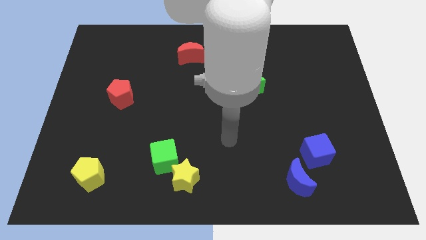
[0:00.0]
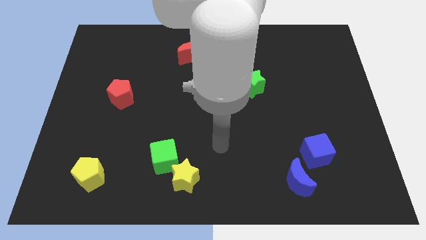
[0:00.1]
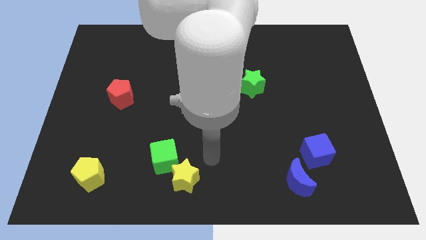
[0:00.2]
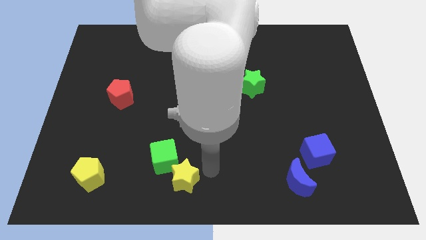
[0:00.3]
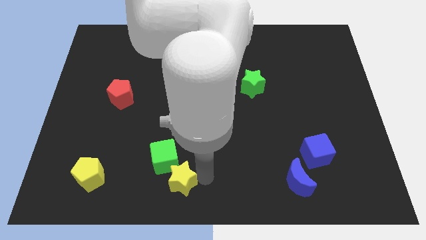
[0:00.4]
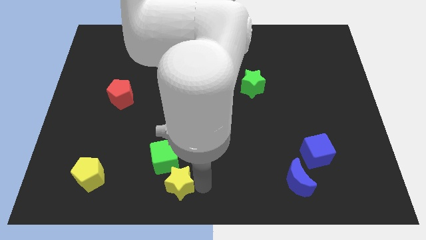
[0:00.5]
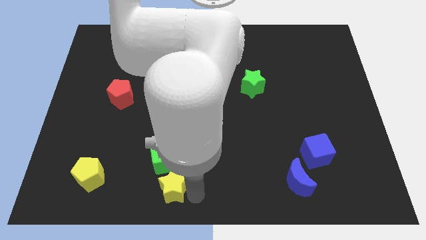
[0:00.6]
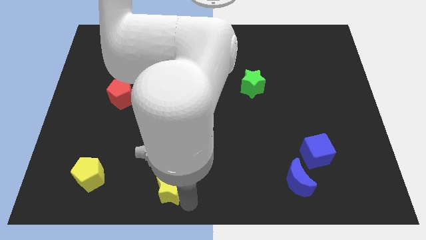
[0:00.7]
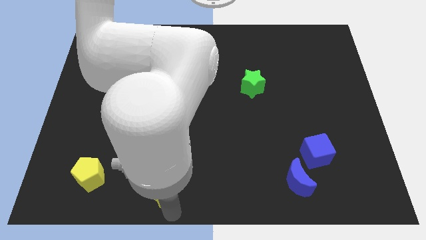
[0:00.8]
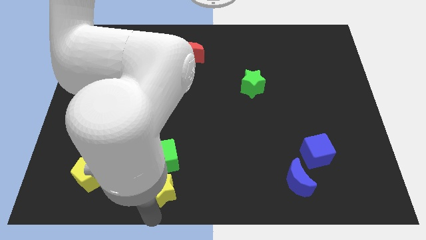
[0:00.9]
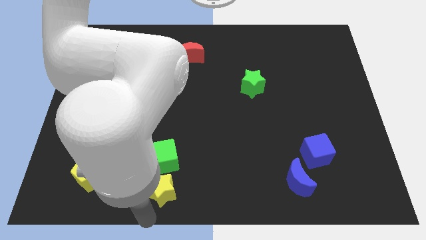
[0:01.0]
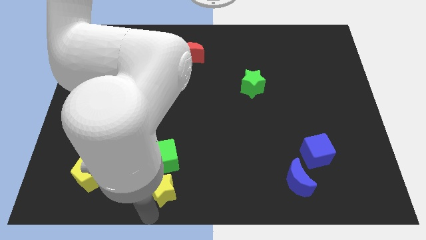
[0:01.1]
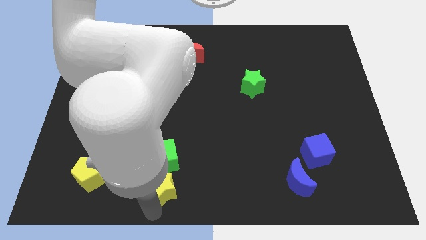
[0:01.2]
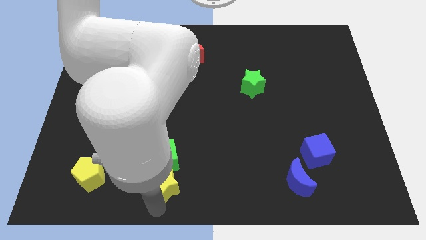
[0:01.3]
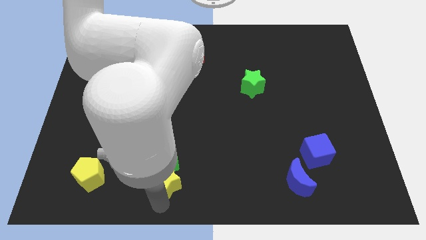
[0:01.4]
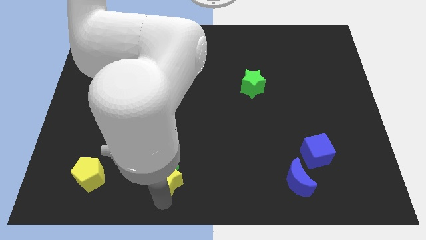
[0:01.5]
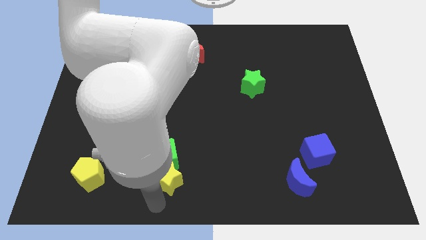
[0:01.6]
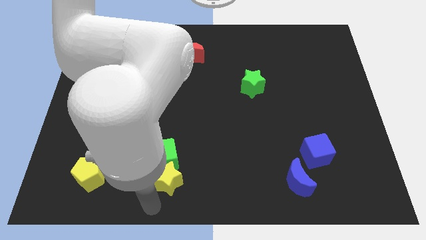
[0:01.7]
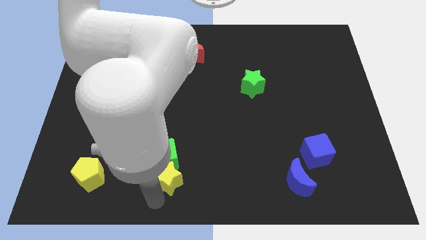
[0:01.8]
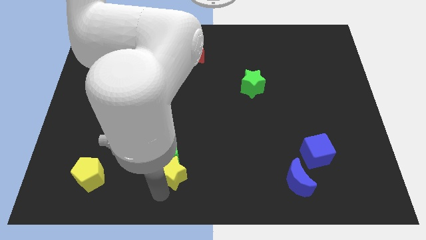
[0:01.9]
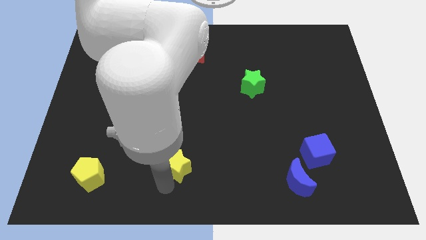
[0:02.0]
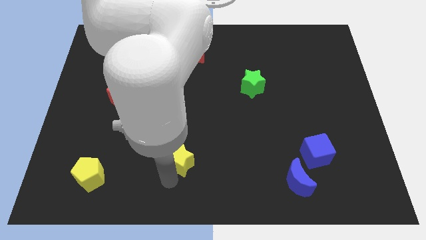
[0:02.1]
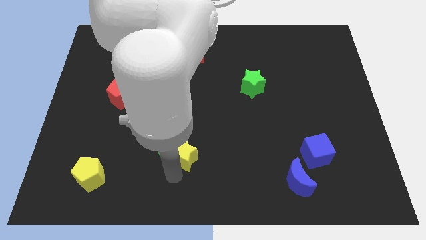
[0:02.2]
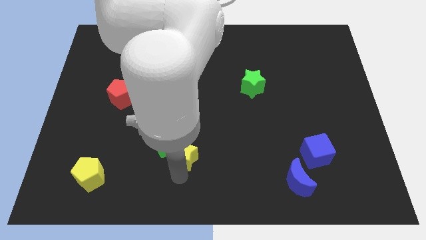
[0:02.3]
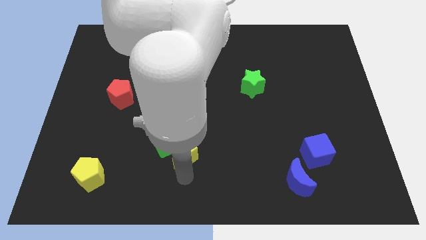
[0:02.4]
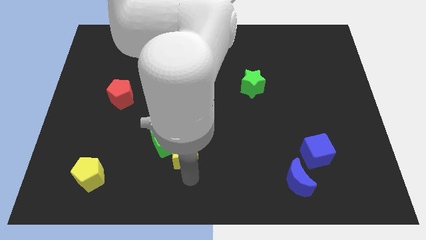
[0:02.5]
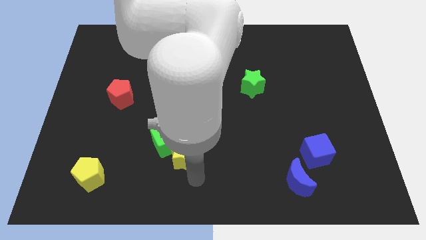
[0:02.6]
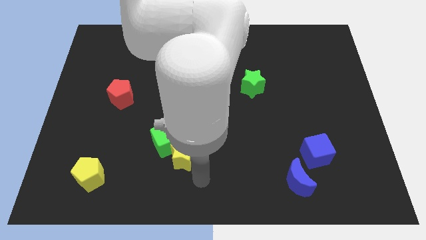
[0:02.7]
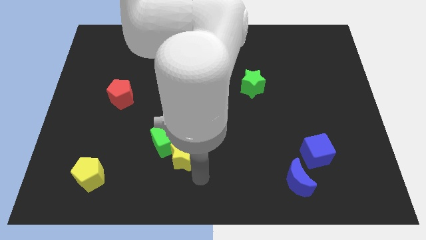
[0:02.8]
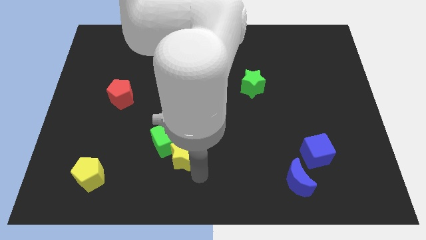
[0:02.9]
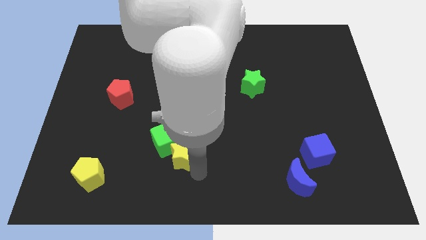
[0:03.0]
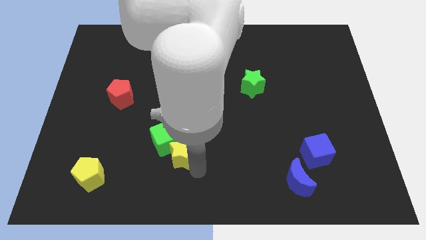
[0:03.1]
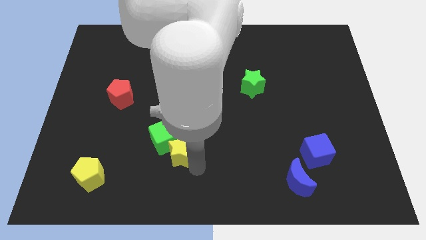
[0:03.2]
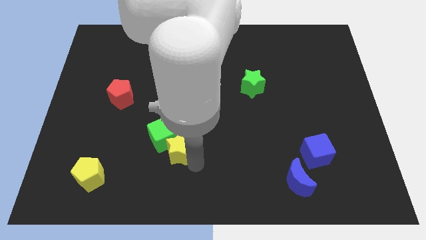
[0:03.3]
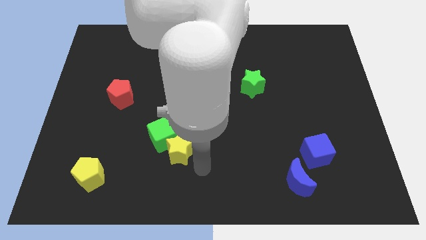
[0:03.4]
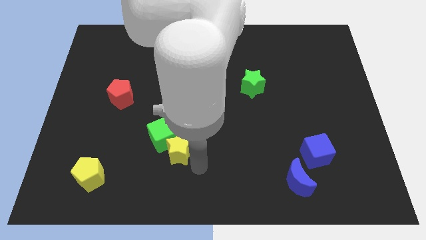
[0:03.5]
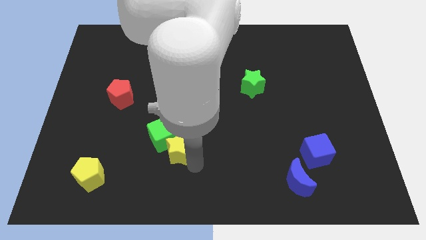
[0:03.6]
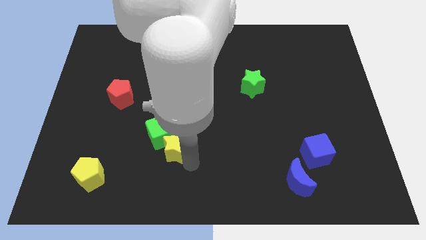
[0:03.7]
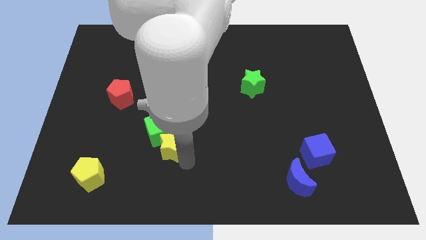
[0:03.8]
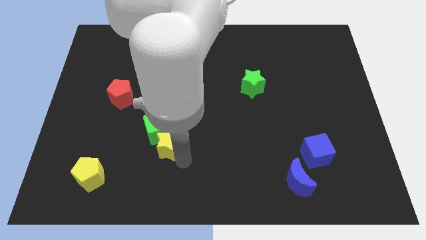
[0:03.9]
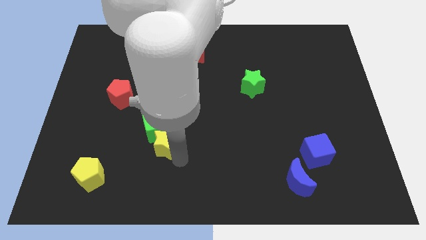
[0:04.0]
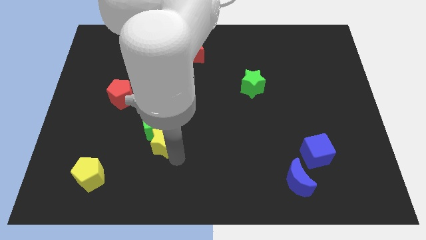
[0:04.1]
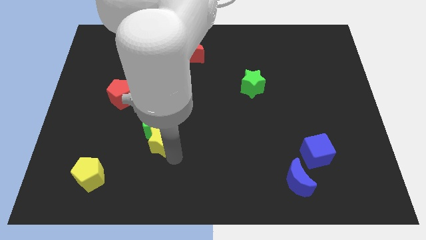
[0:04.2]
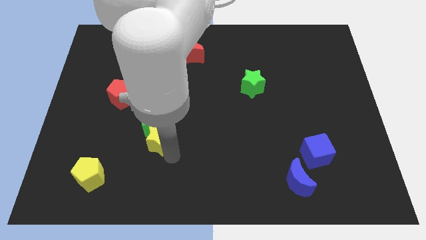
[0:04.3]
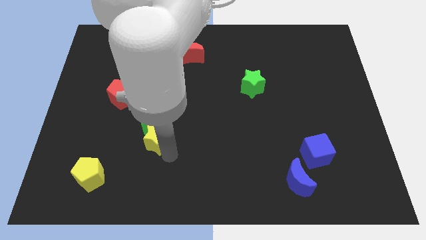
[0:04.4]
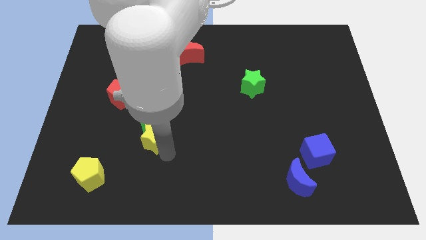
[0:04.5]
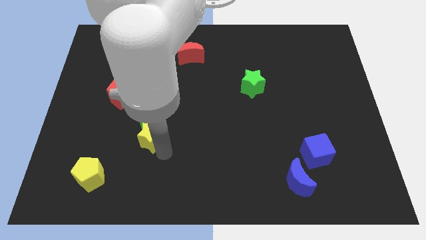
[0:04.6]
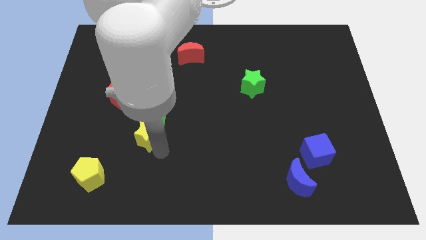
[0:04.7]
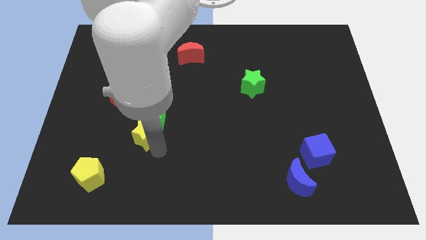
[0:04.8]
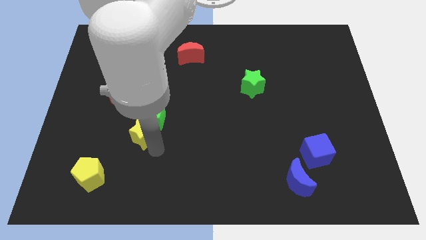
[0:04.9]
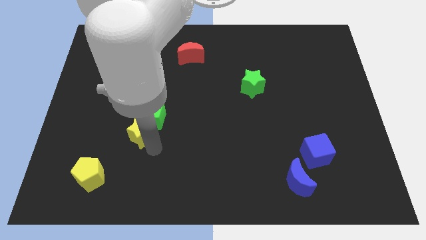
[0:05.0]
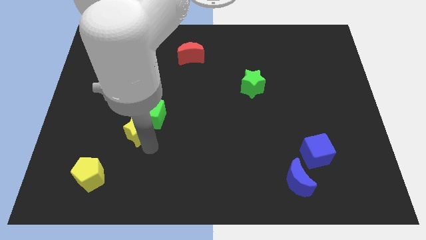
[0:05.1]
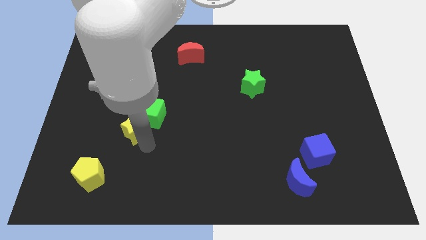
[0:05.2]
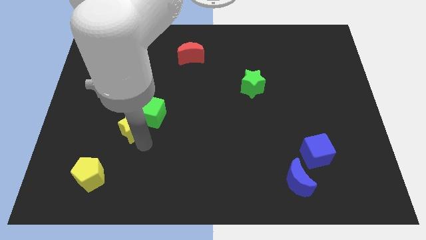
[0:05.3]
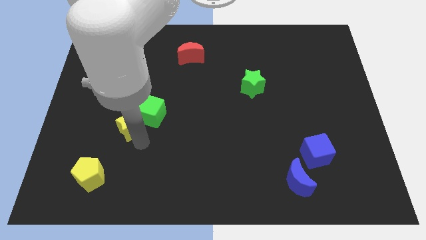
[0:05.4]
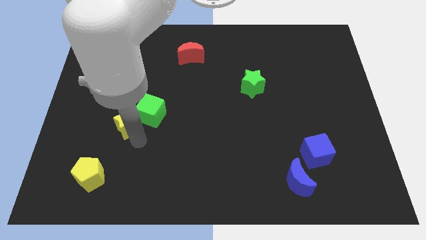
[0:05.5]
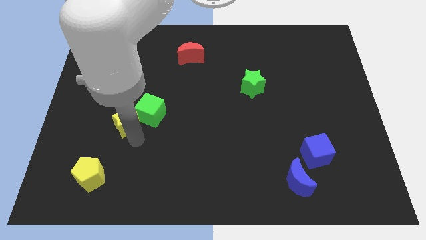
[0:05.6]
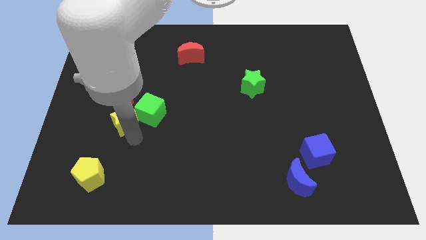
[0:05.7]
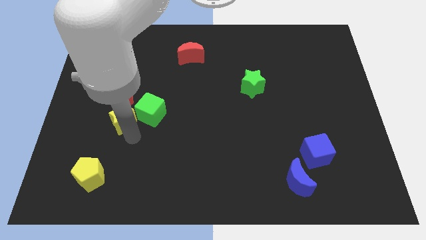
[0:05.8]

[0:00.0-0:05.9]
push the yellow star upwards and left diagonally

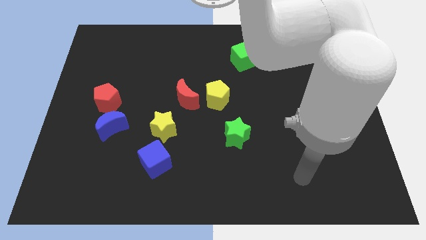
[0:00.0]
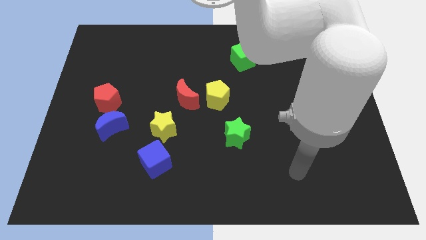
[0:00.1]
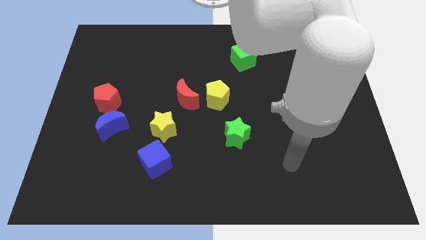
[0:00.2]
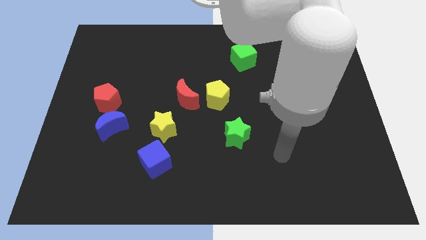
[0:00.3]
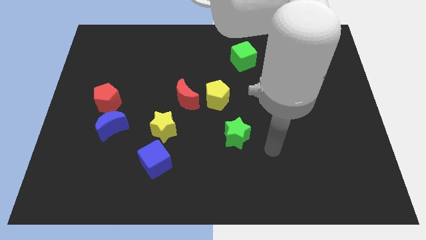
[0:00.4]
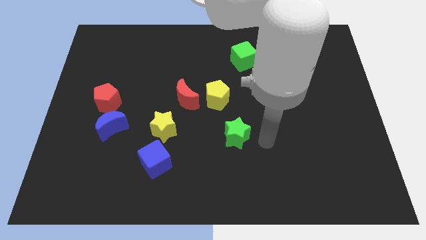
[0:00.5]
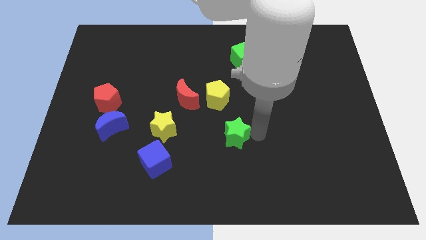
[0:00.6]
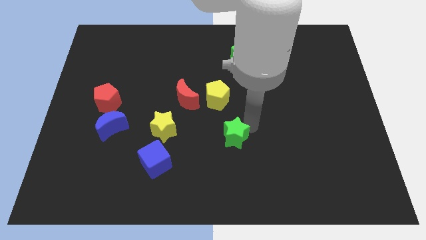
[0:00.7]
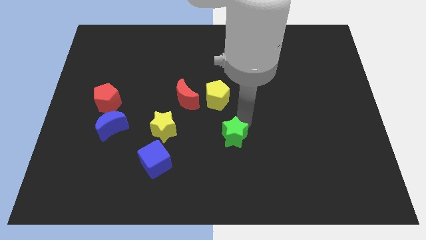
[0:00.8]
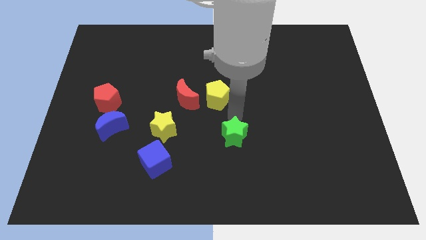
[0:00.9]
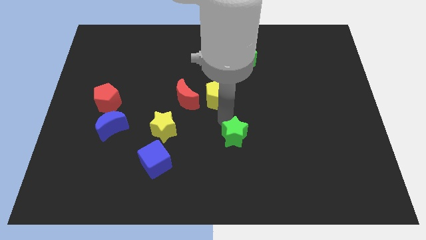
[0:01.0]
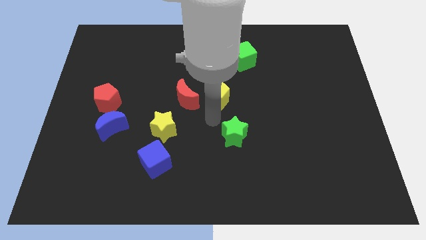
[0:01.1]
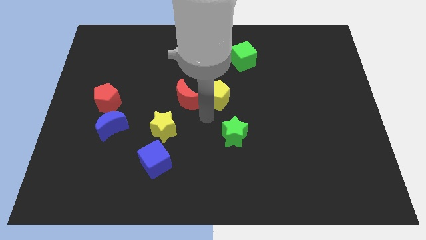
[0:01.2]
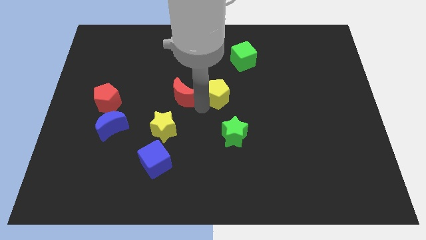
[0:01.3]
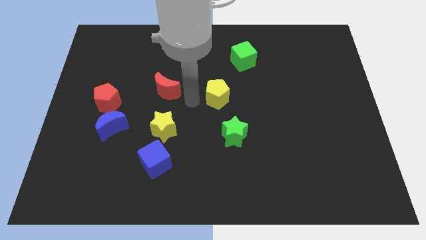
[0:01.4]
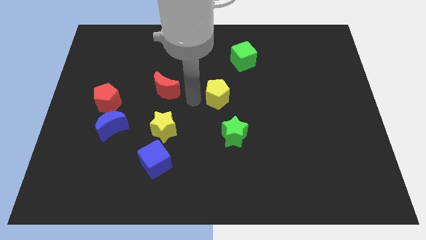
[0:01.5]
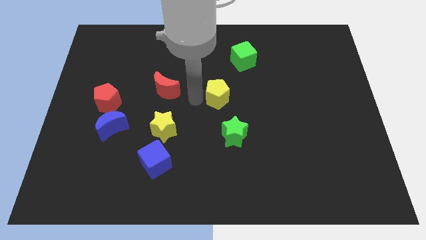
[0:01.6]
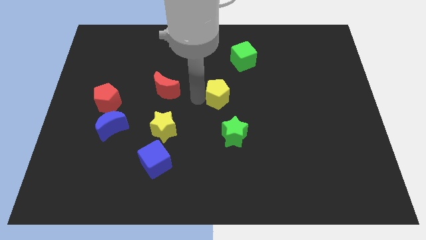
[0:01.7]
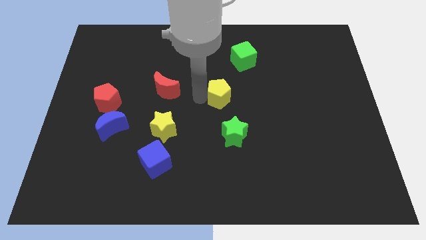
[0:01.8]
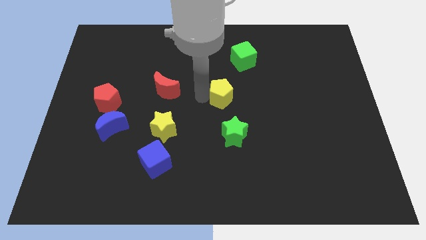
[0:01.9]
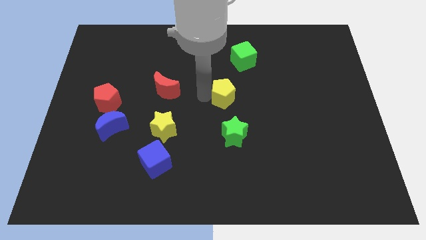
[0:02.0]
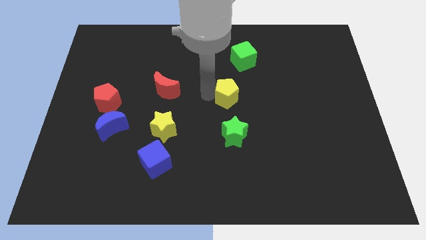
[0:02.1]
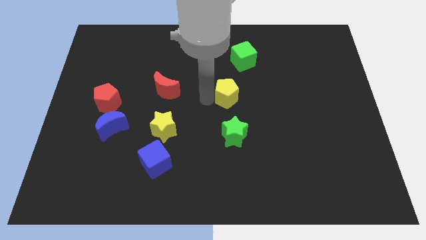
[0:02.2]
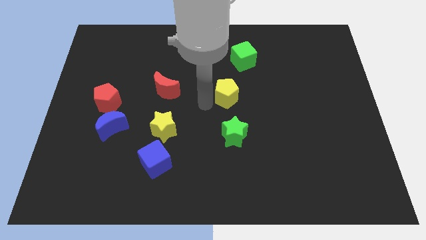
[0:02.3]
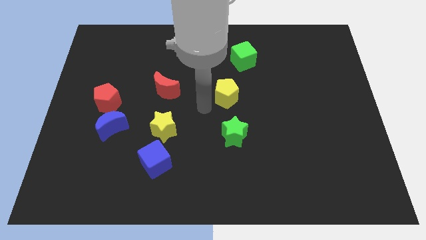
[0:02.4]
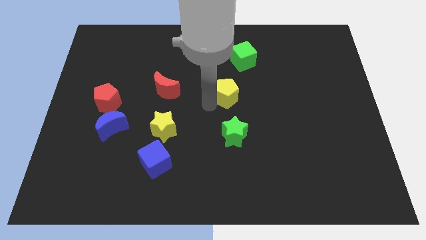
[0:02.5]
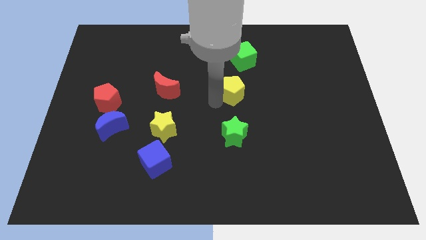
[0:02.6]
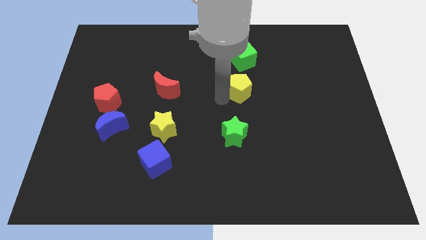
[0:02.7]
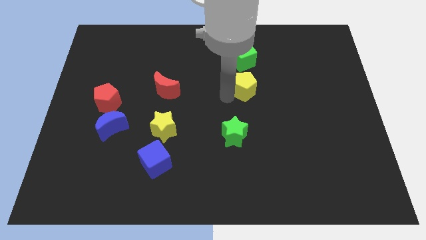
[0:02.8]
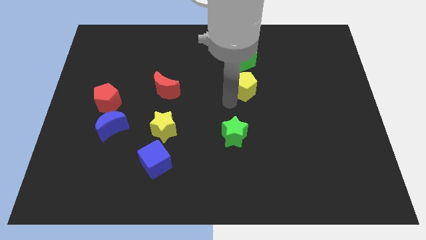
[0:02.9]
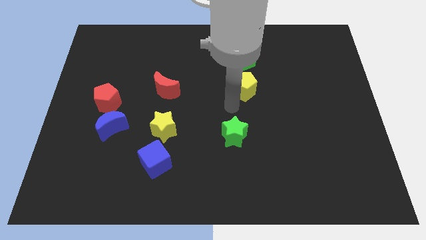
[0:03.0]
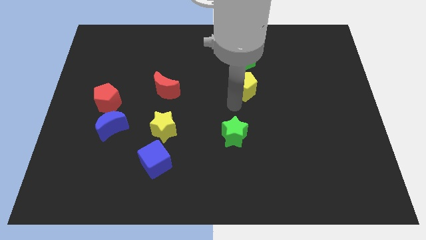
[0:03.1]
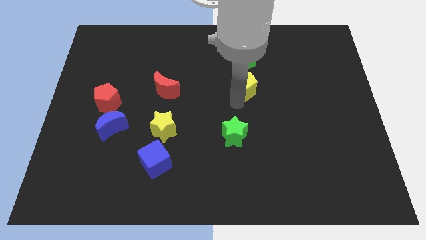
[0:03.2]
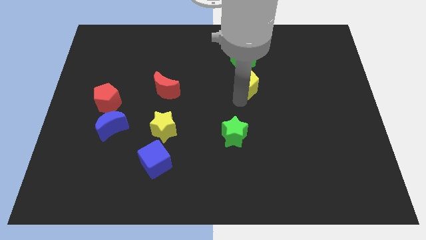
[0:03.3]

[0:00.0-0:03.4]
slightly slide the yellow pentagon diagonally up and to the right
